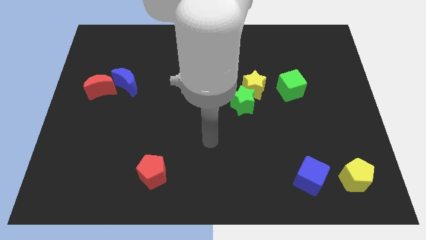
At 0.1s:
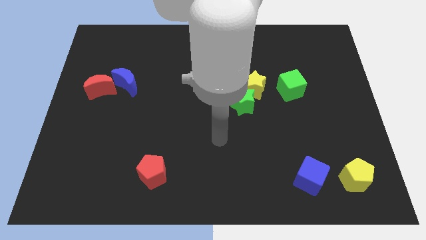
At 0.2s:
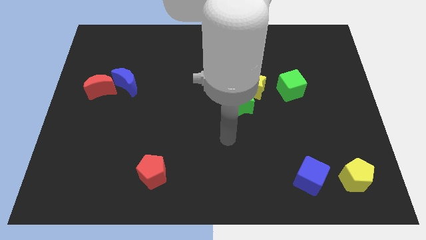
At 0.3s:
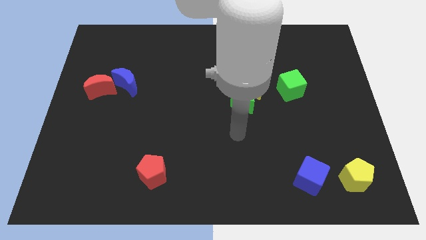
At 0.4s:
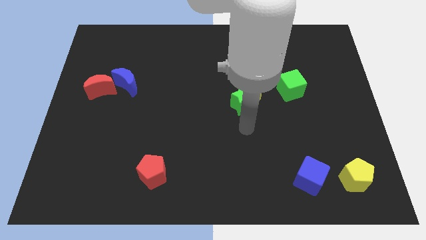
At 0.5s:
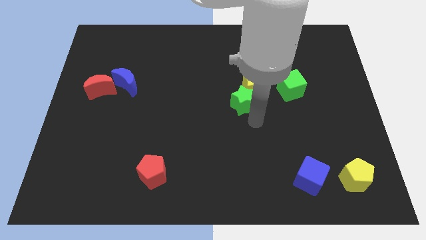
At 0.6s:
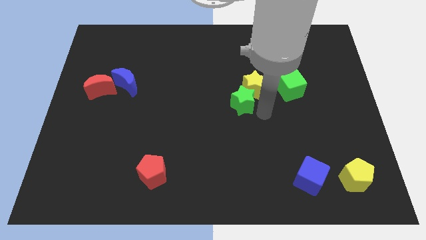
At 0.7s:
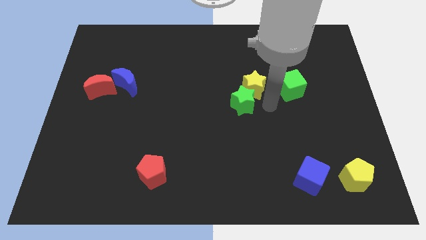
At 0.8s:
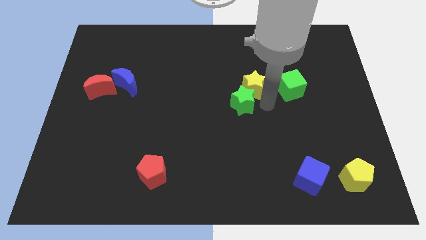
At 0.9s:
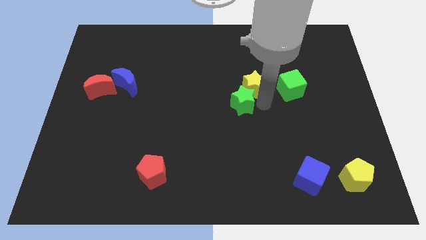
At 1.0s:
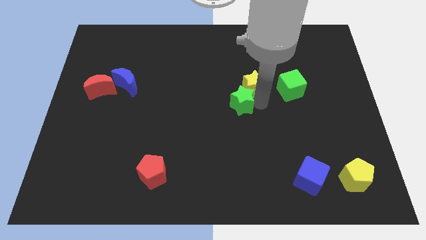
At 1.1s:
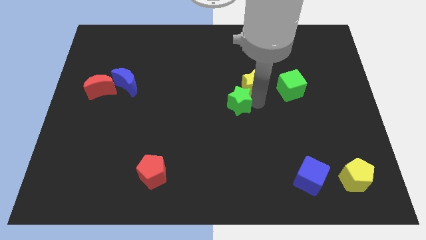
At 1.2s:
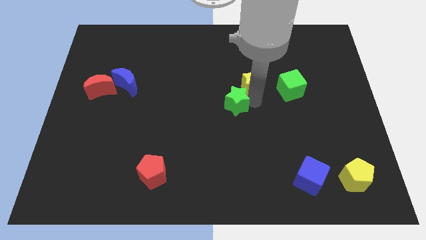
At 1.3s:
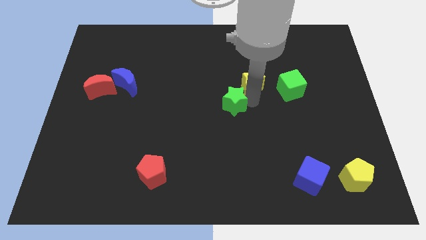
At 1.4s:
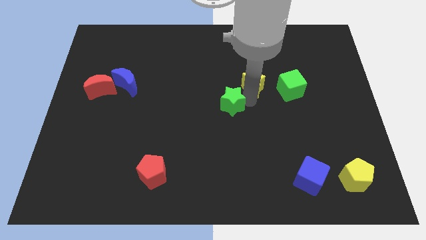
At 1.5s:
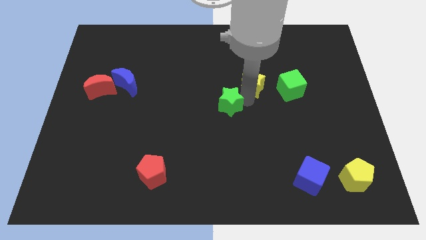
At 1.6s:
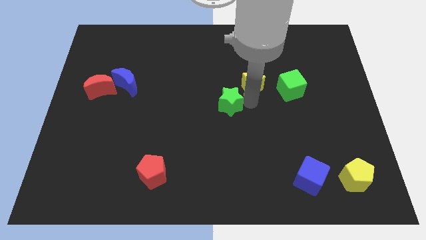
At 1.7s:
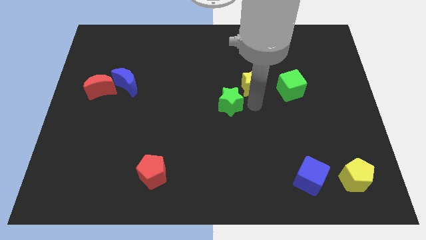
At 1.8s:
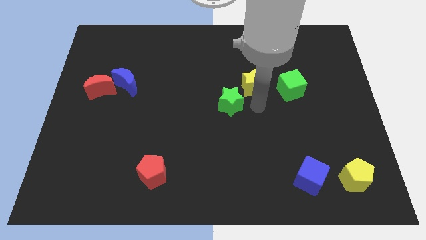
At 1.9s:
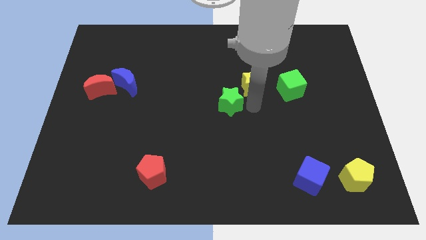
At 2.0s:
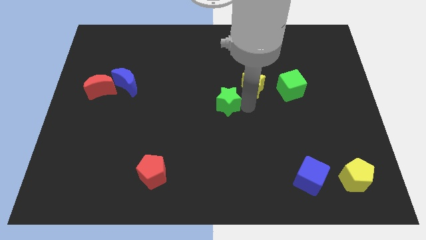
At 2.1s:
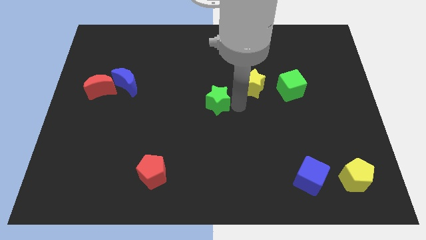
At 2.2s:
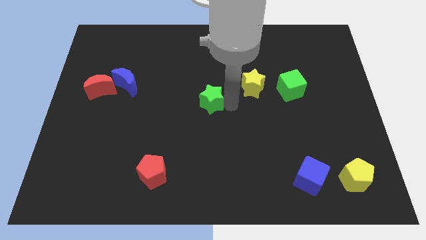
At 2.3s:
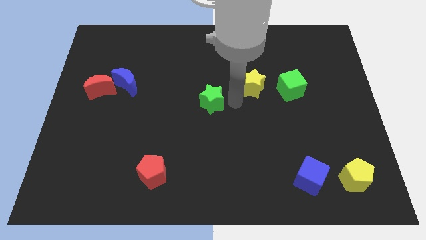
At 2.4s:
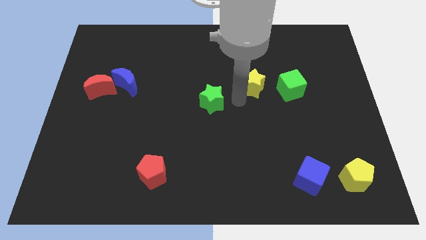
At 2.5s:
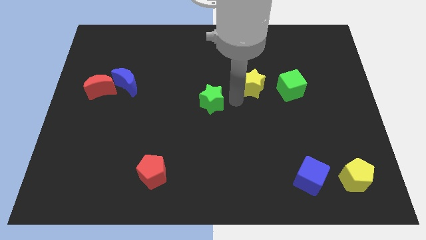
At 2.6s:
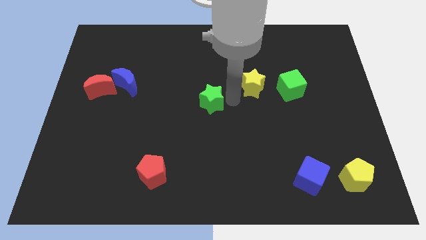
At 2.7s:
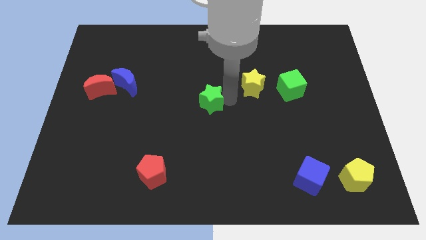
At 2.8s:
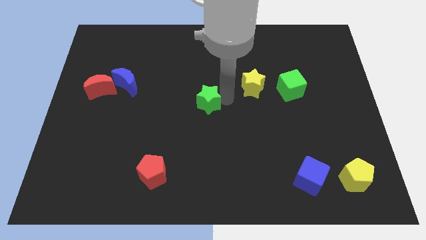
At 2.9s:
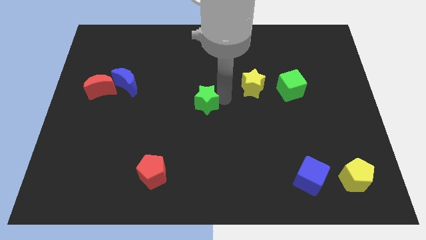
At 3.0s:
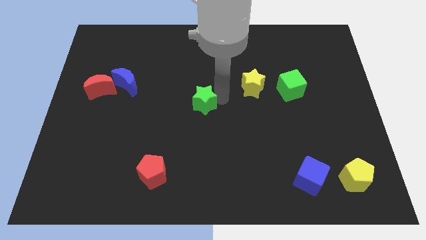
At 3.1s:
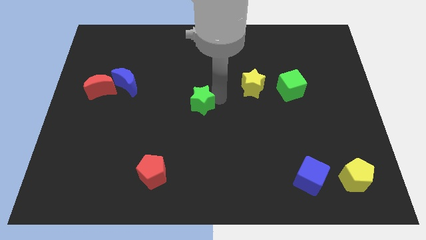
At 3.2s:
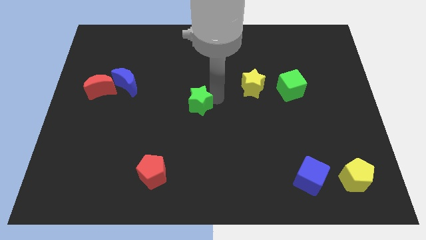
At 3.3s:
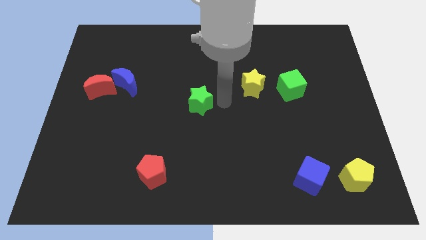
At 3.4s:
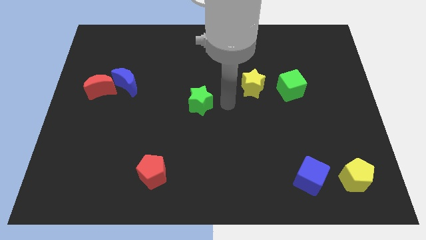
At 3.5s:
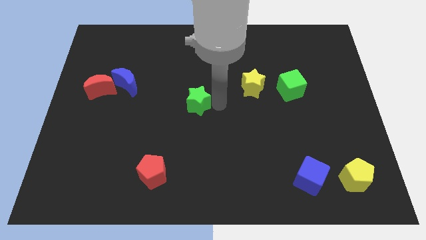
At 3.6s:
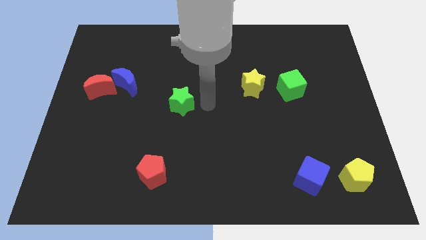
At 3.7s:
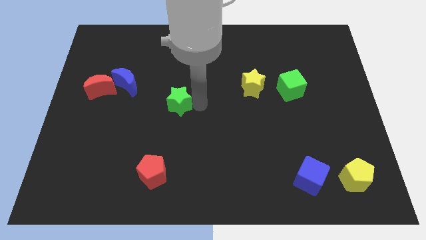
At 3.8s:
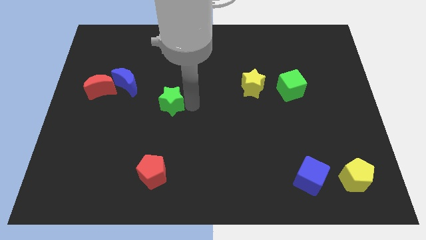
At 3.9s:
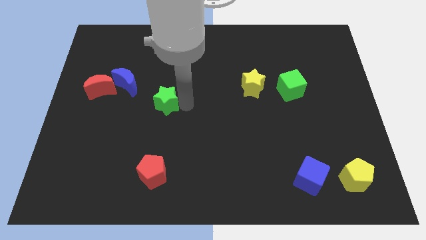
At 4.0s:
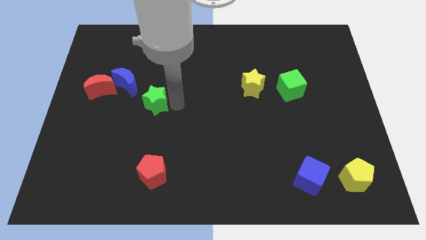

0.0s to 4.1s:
slide the green star left

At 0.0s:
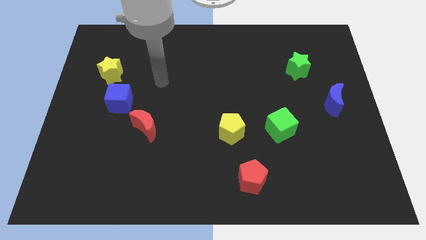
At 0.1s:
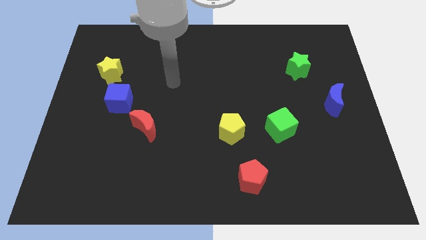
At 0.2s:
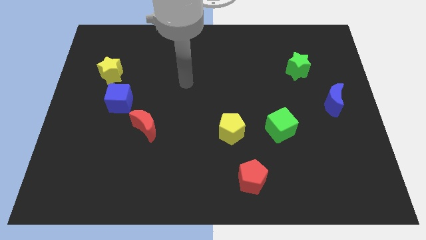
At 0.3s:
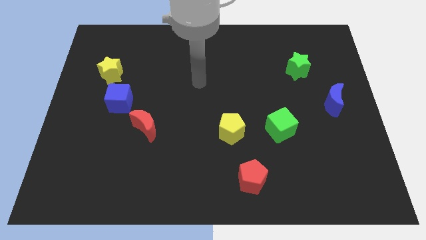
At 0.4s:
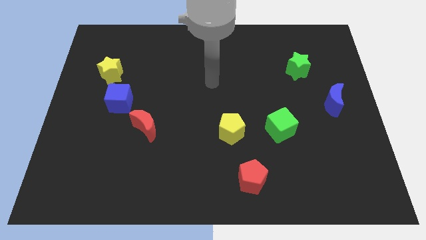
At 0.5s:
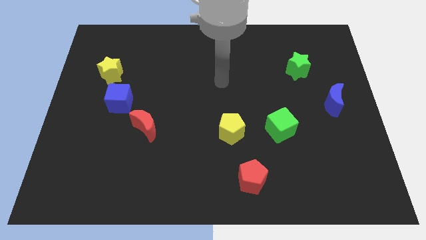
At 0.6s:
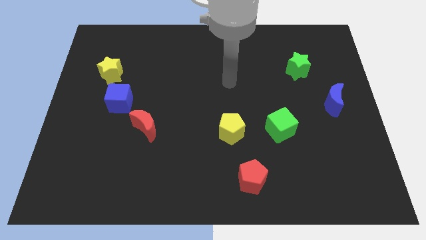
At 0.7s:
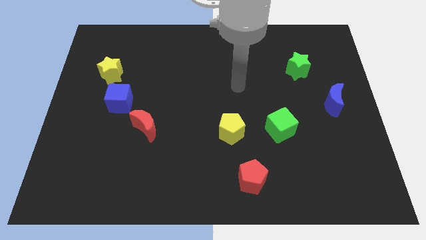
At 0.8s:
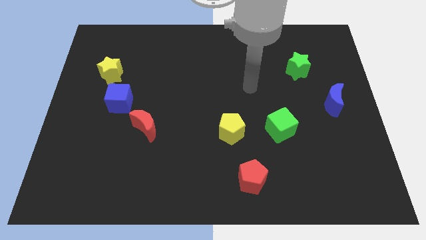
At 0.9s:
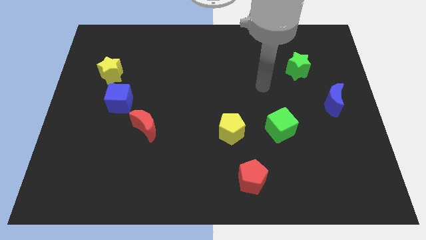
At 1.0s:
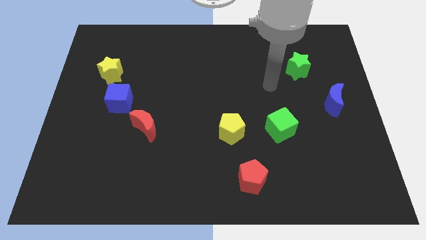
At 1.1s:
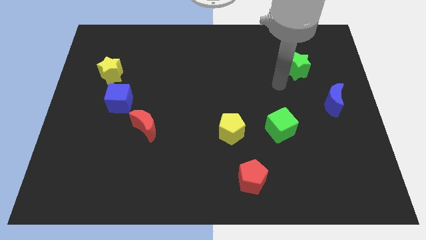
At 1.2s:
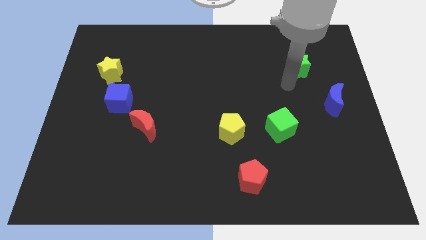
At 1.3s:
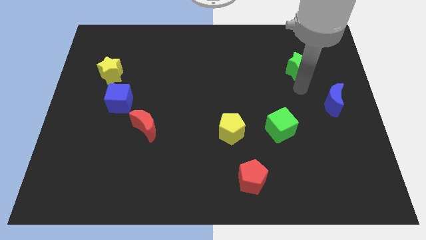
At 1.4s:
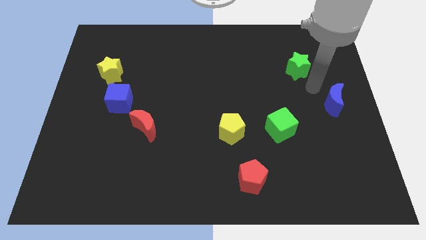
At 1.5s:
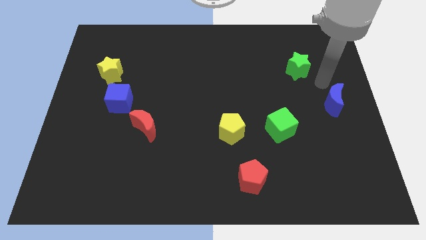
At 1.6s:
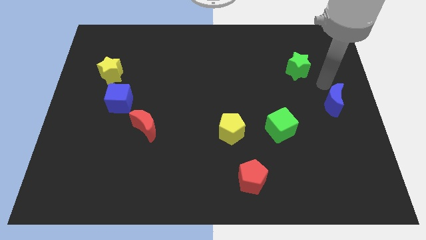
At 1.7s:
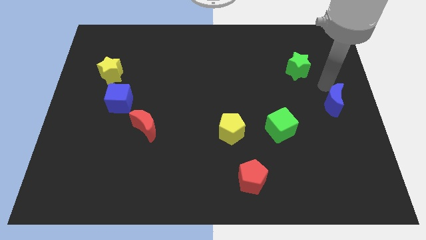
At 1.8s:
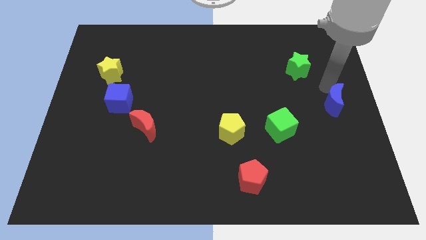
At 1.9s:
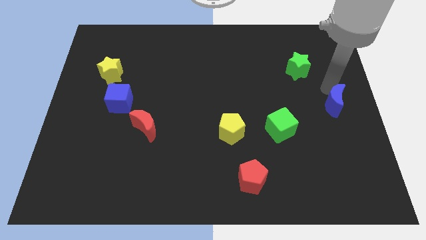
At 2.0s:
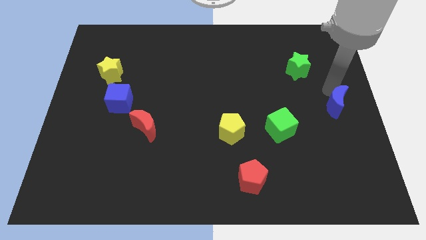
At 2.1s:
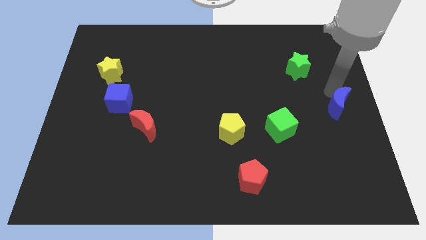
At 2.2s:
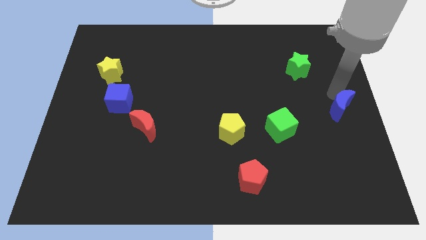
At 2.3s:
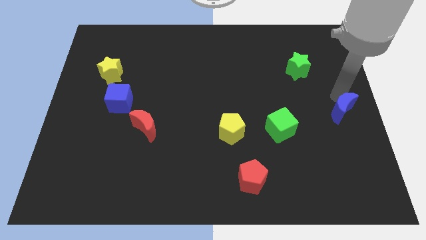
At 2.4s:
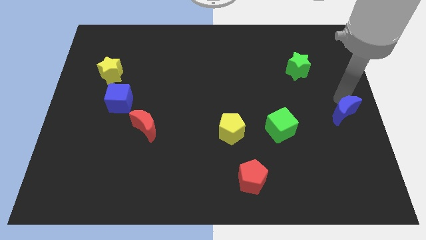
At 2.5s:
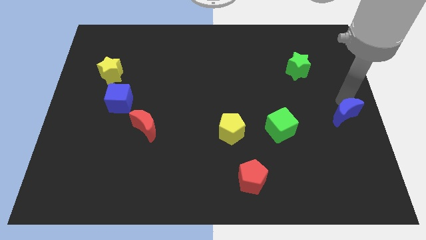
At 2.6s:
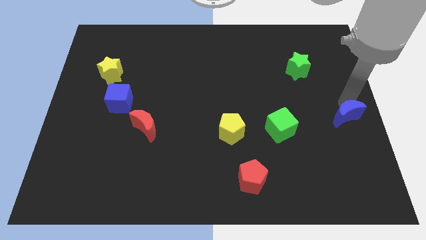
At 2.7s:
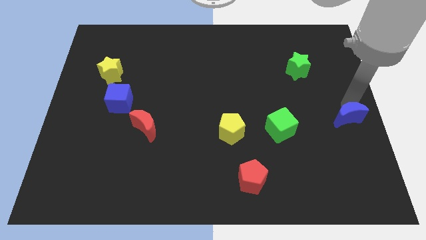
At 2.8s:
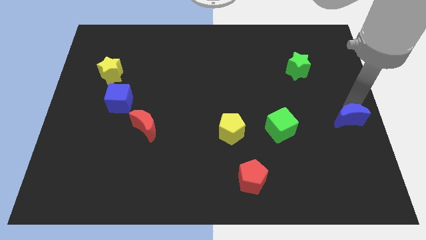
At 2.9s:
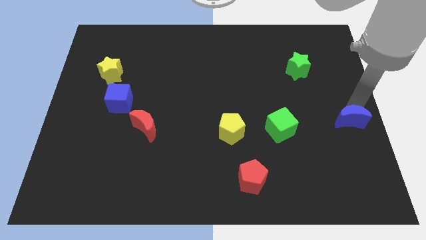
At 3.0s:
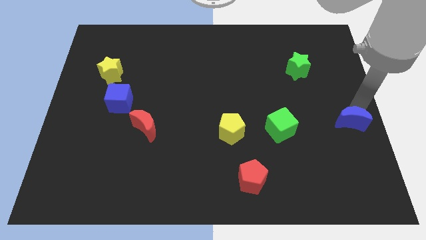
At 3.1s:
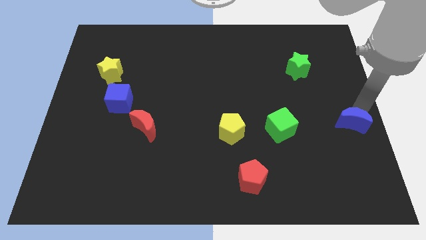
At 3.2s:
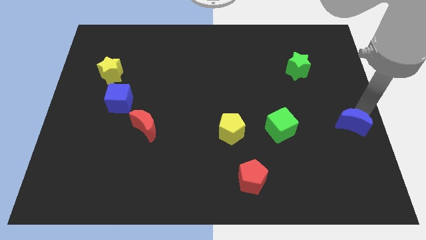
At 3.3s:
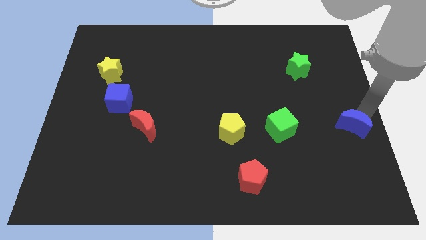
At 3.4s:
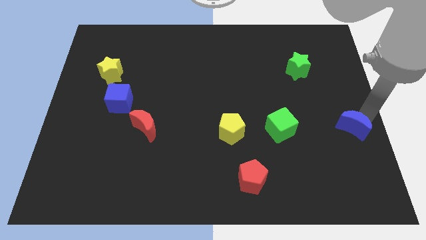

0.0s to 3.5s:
push the blue moon down a little bit

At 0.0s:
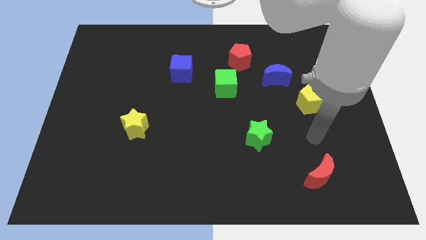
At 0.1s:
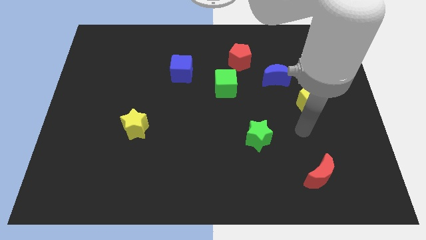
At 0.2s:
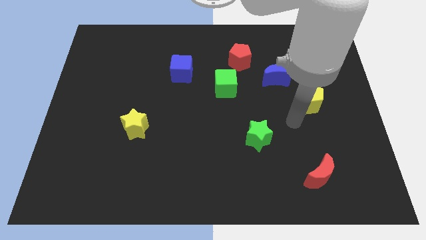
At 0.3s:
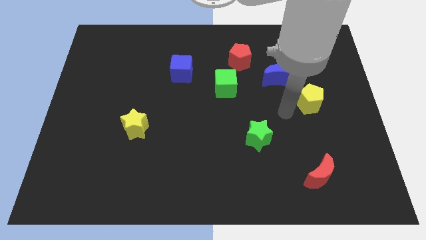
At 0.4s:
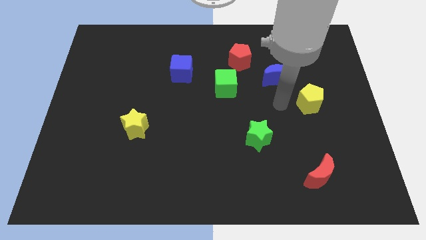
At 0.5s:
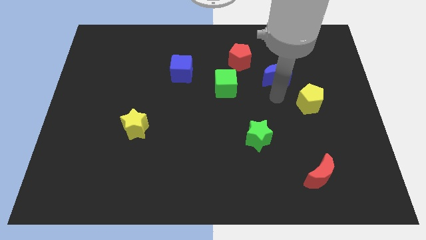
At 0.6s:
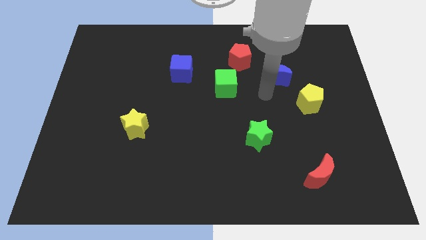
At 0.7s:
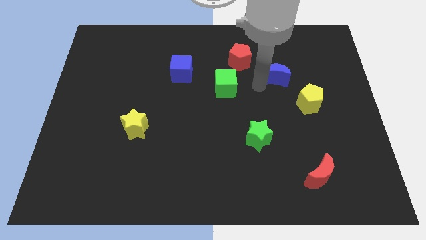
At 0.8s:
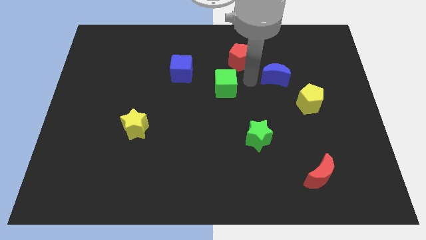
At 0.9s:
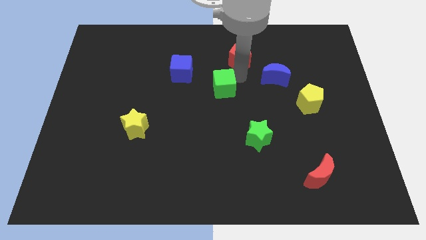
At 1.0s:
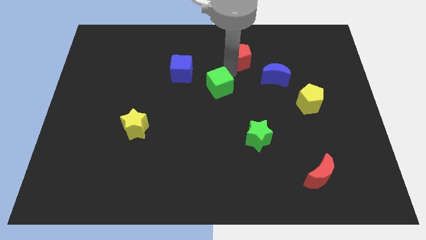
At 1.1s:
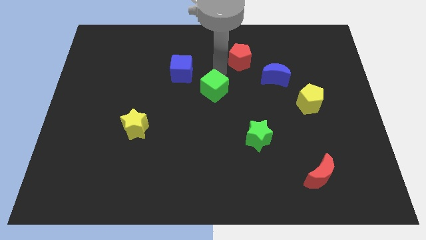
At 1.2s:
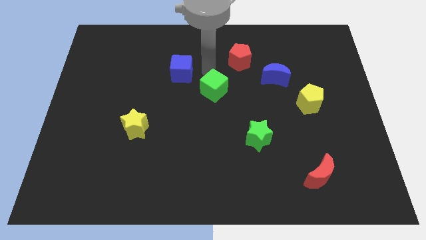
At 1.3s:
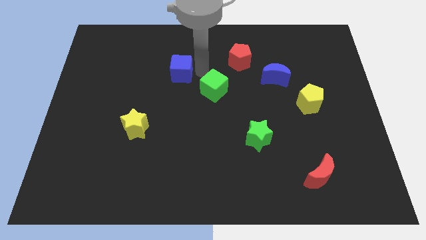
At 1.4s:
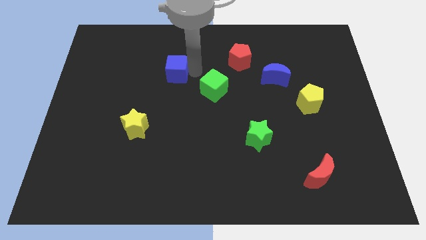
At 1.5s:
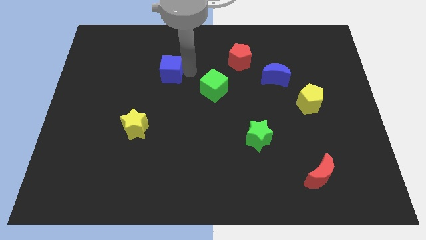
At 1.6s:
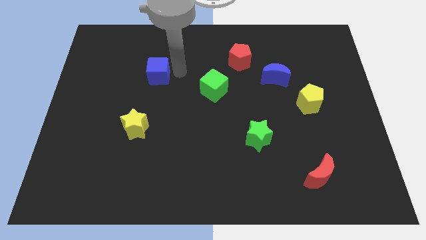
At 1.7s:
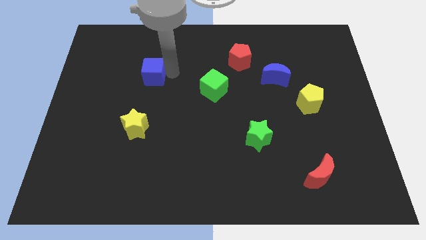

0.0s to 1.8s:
move the blue cube left slightly
